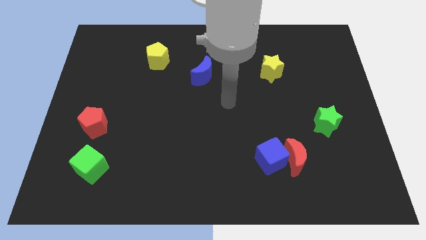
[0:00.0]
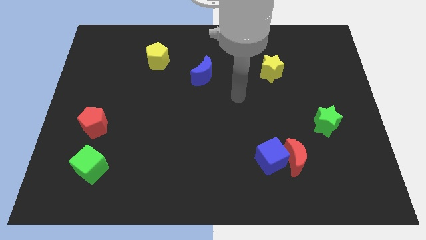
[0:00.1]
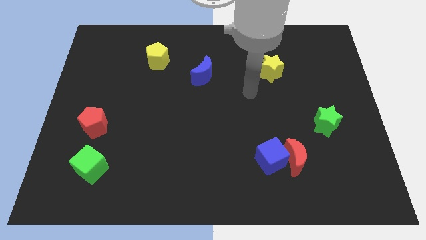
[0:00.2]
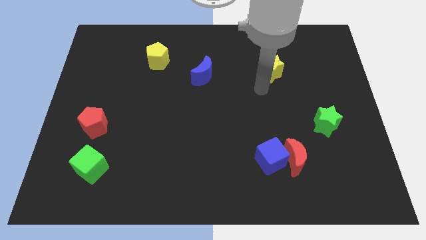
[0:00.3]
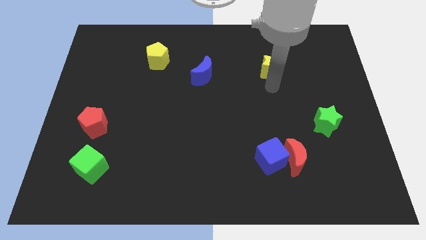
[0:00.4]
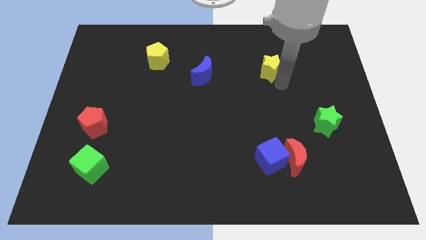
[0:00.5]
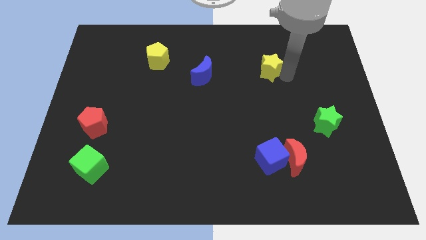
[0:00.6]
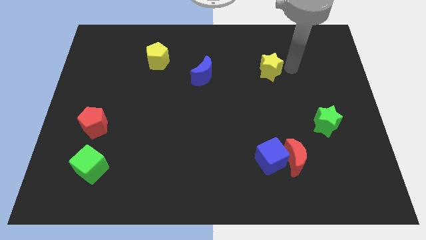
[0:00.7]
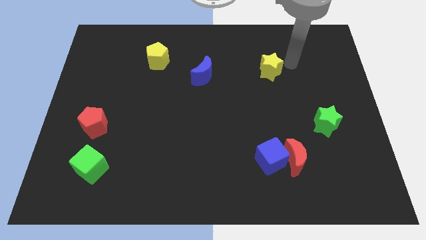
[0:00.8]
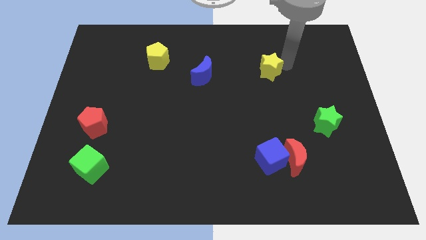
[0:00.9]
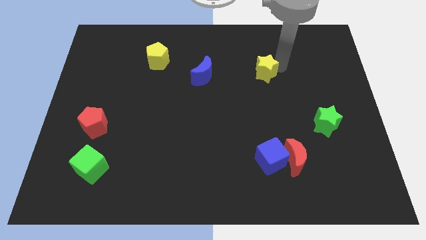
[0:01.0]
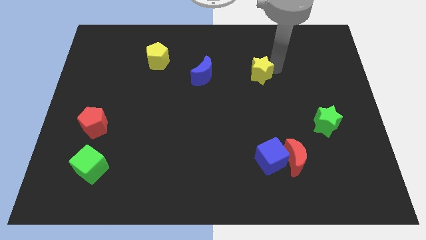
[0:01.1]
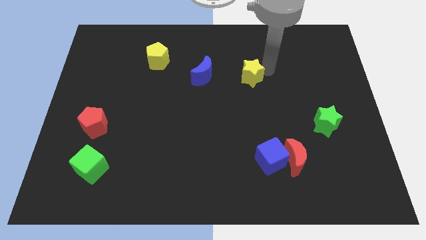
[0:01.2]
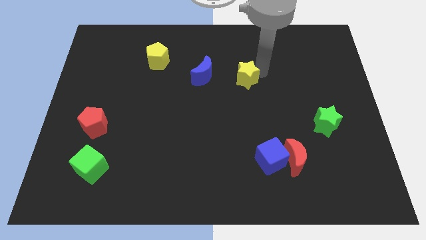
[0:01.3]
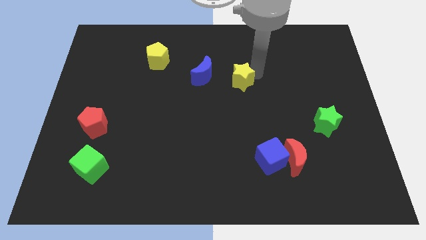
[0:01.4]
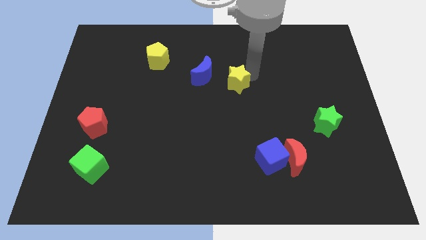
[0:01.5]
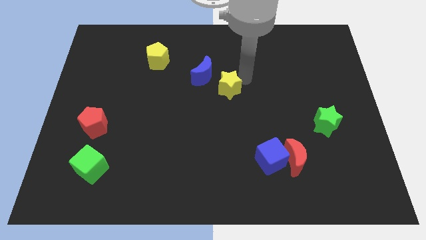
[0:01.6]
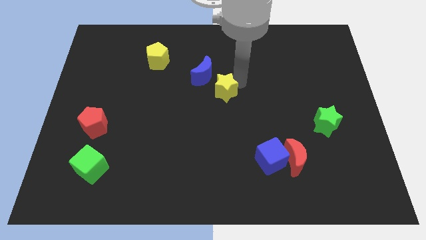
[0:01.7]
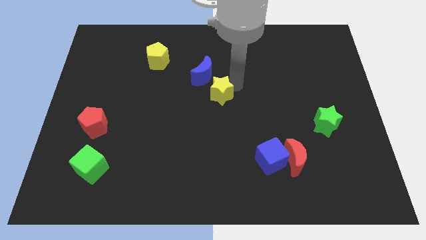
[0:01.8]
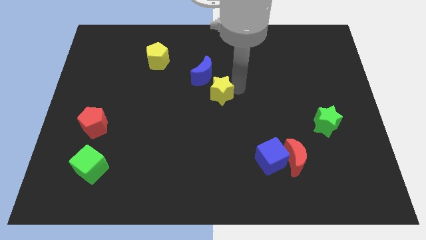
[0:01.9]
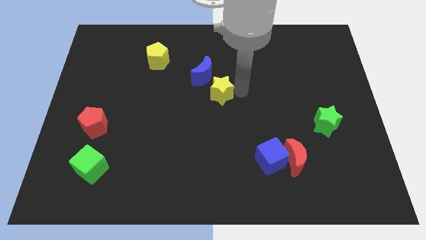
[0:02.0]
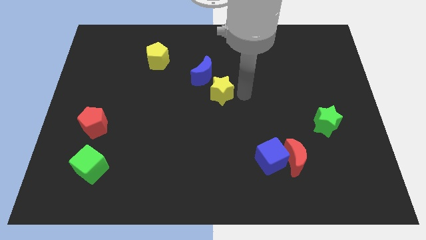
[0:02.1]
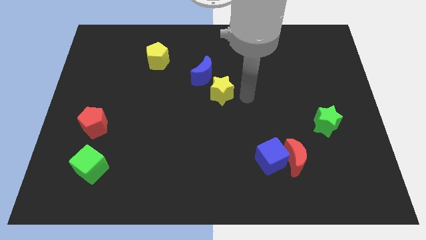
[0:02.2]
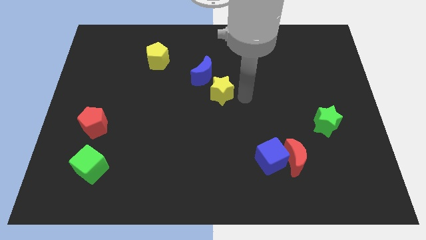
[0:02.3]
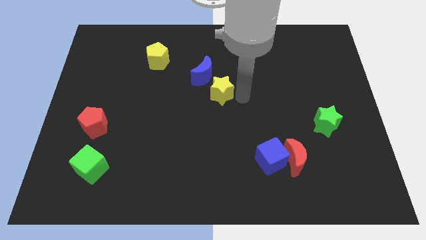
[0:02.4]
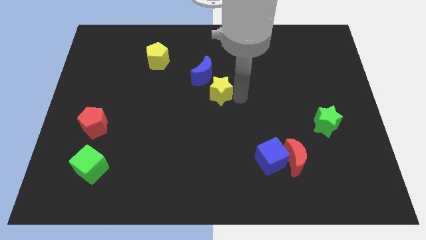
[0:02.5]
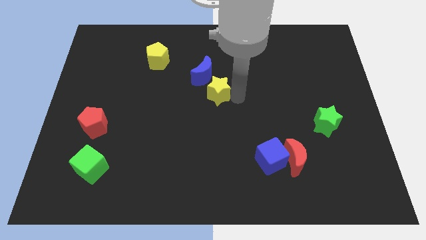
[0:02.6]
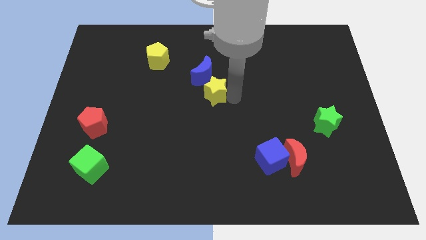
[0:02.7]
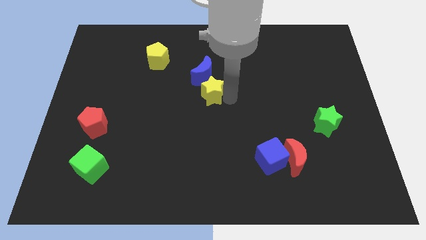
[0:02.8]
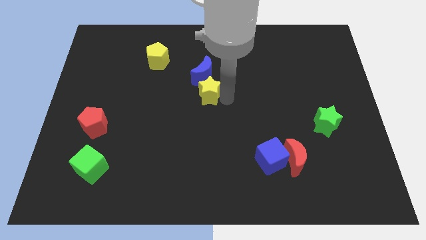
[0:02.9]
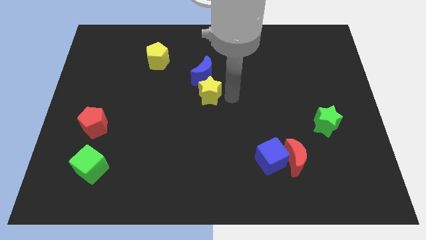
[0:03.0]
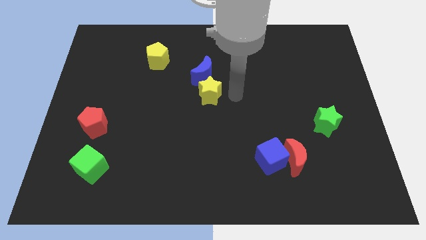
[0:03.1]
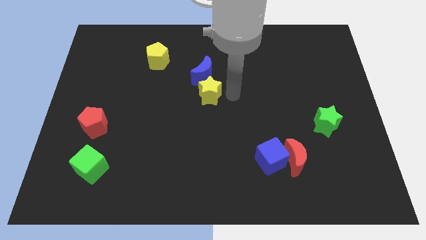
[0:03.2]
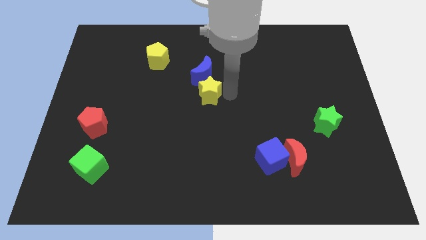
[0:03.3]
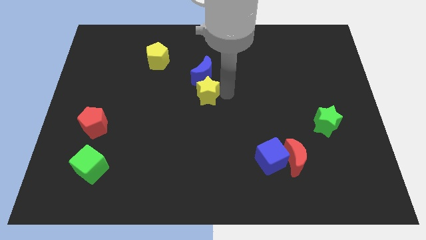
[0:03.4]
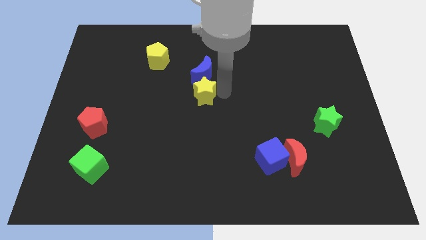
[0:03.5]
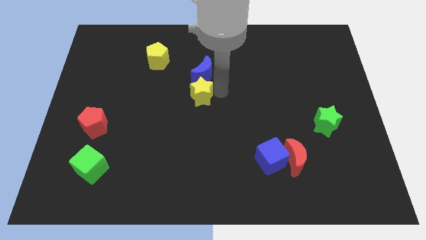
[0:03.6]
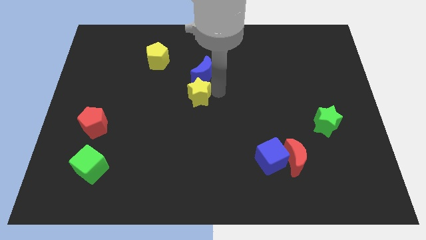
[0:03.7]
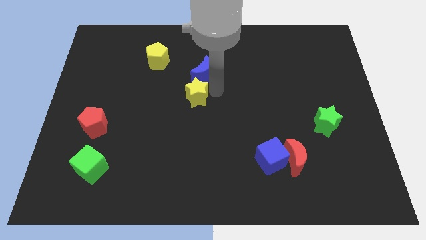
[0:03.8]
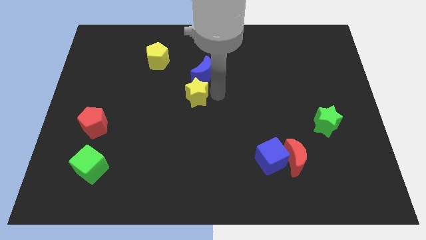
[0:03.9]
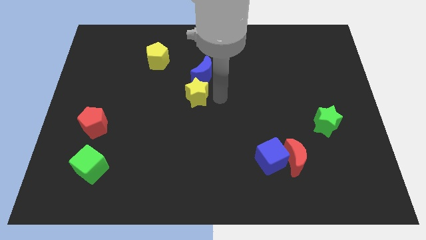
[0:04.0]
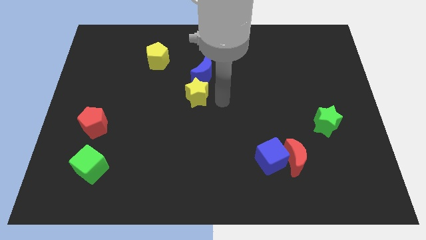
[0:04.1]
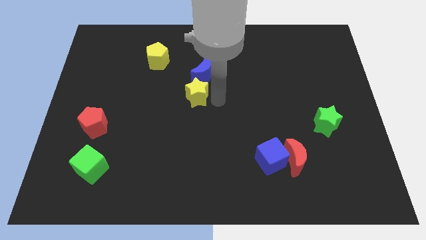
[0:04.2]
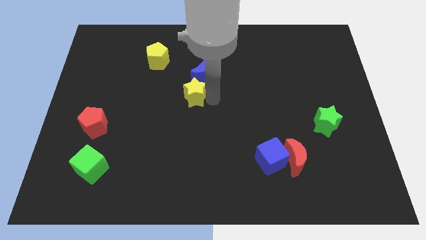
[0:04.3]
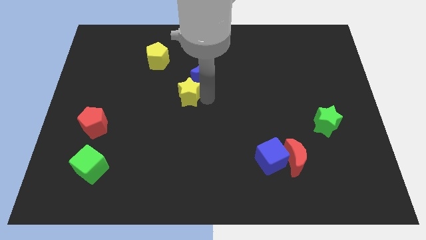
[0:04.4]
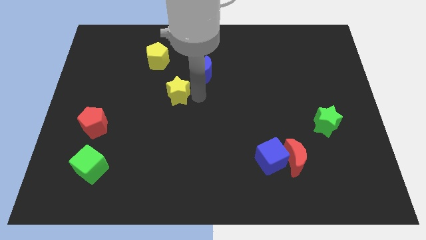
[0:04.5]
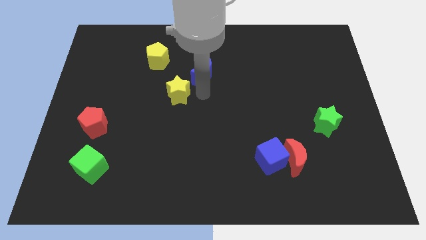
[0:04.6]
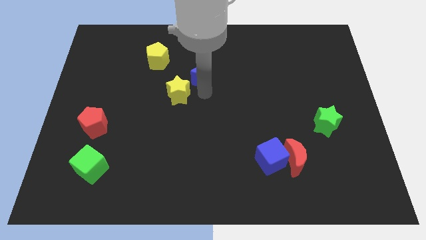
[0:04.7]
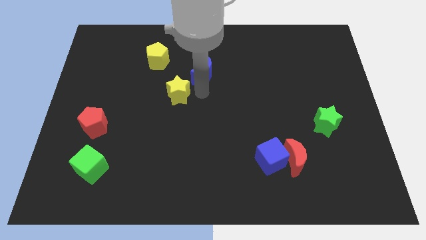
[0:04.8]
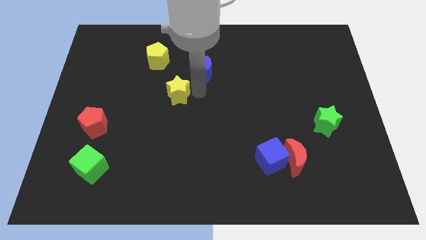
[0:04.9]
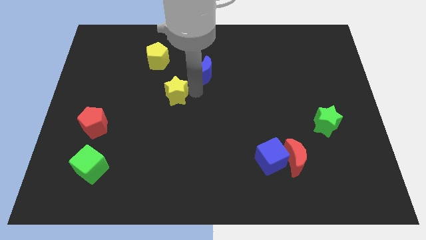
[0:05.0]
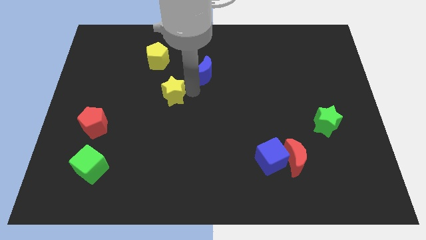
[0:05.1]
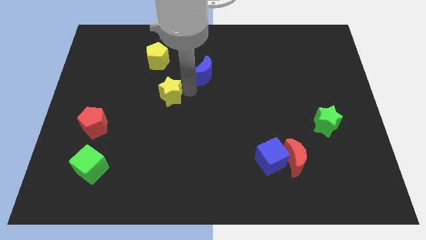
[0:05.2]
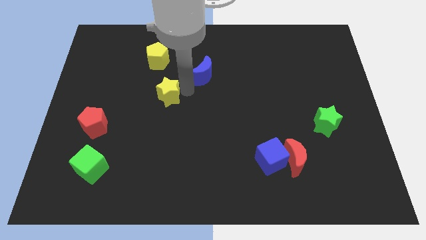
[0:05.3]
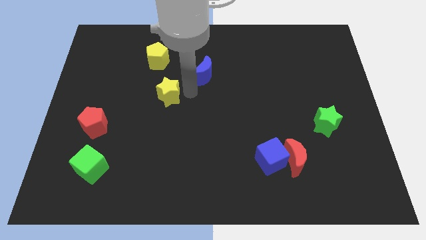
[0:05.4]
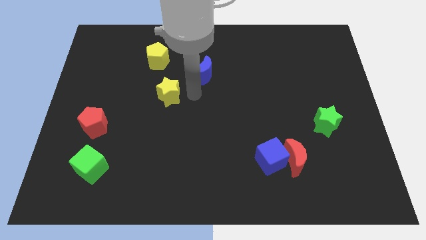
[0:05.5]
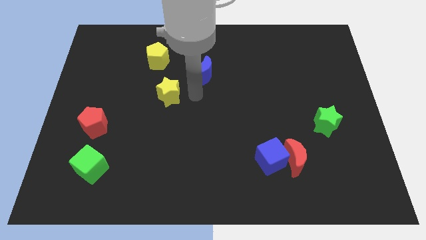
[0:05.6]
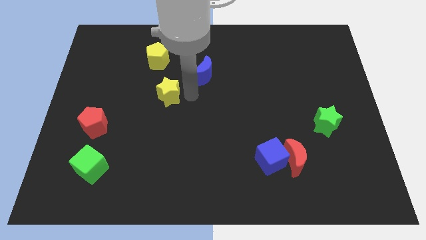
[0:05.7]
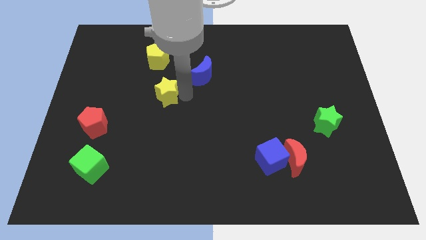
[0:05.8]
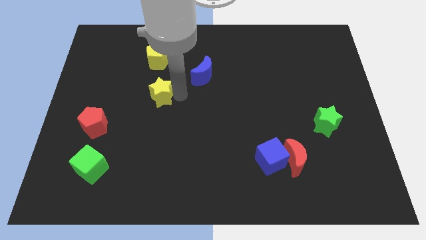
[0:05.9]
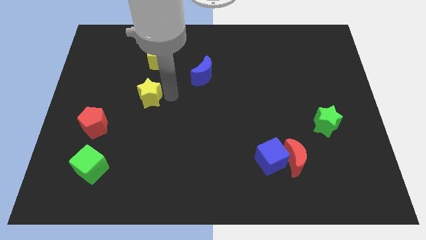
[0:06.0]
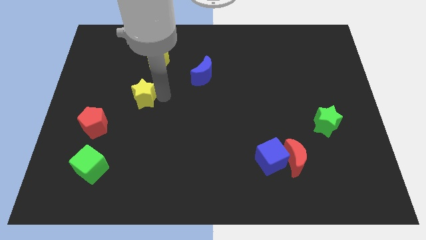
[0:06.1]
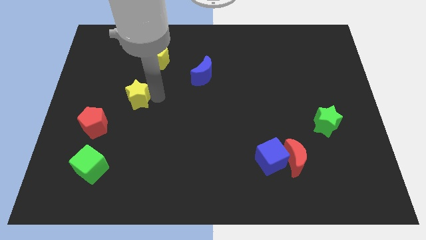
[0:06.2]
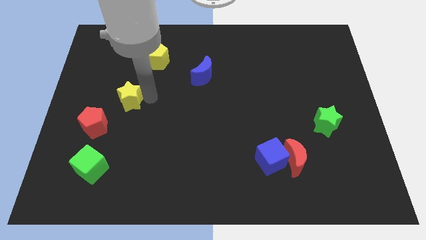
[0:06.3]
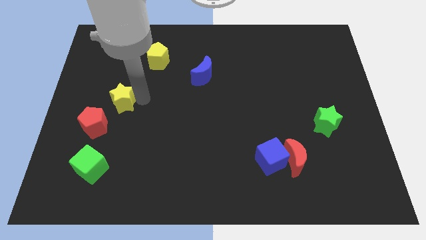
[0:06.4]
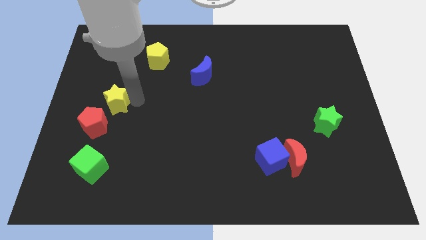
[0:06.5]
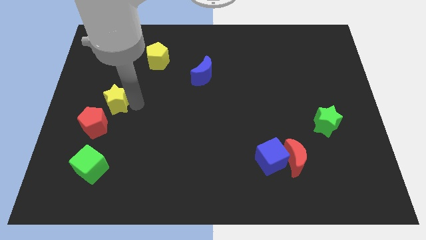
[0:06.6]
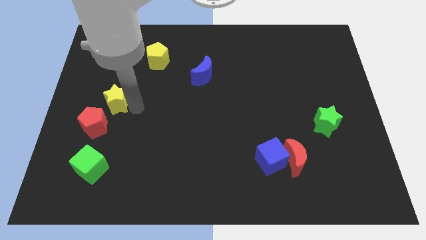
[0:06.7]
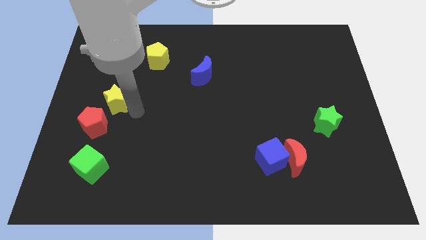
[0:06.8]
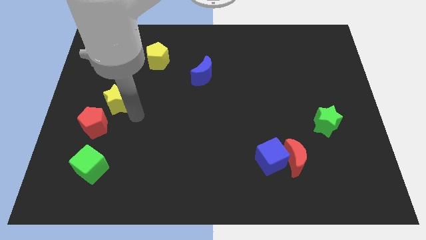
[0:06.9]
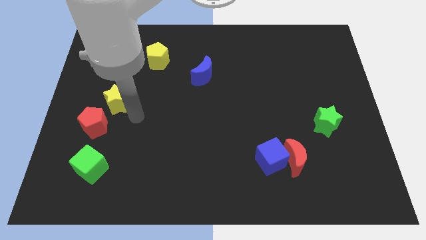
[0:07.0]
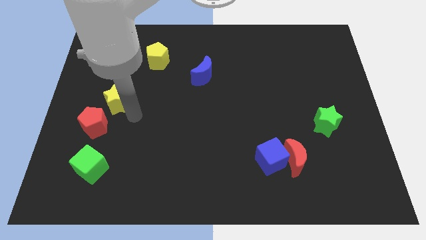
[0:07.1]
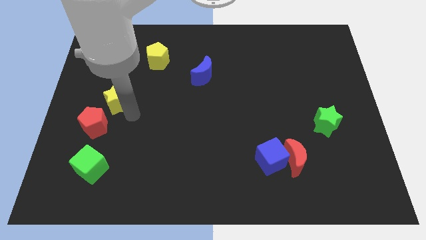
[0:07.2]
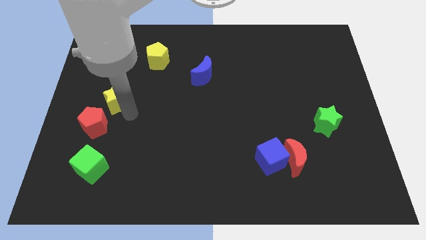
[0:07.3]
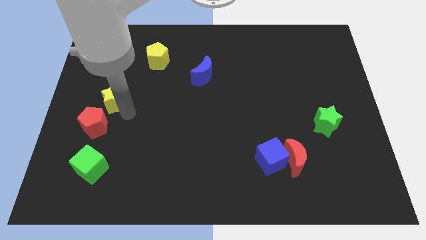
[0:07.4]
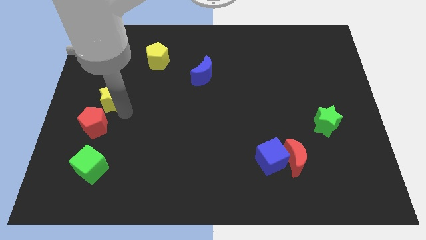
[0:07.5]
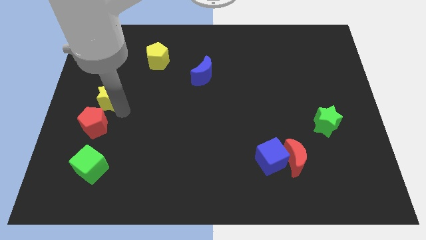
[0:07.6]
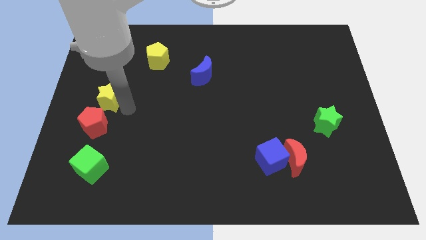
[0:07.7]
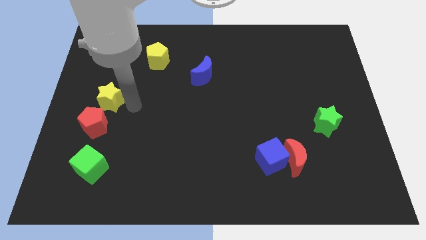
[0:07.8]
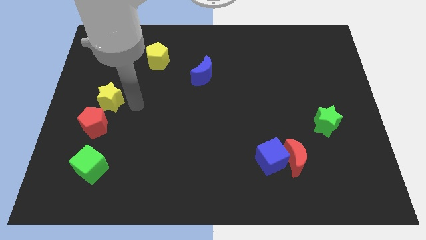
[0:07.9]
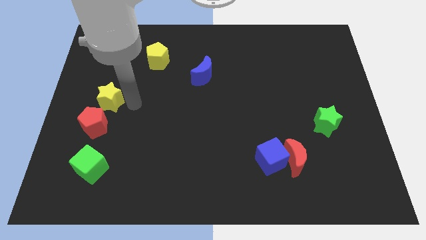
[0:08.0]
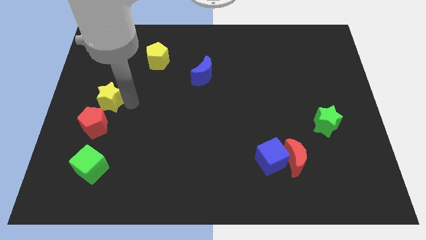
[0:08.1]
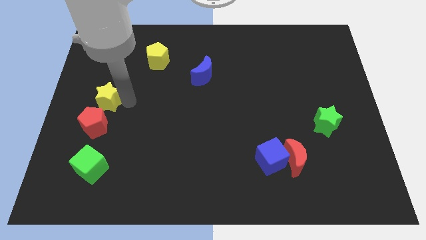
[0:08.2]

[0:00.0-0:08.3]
slide the yellow star to the left side of the board
